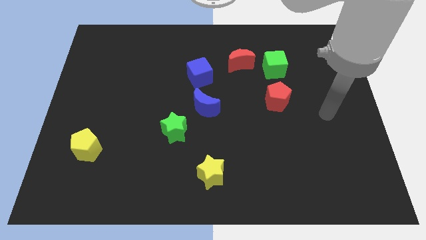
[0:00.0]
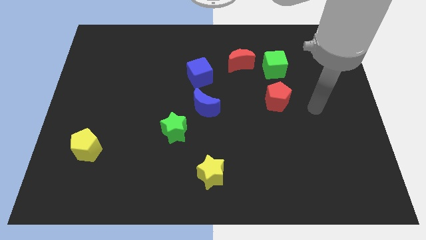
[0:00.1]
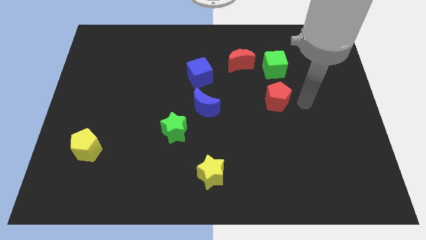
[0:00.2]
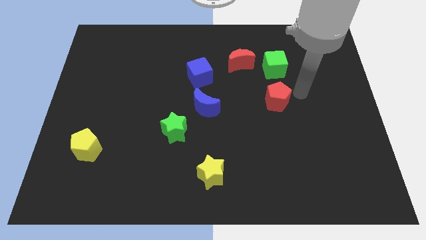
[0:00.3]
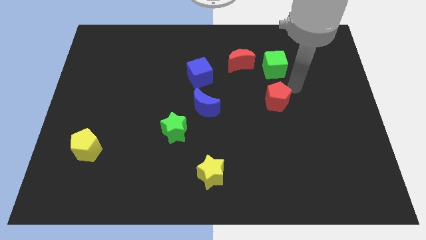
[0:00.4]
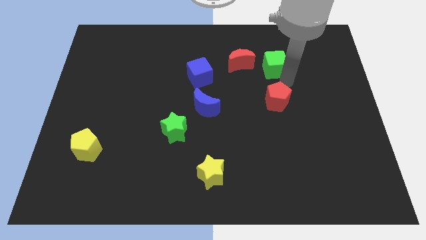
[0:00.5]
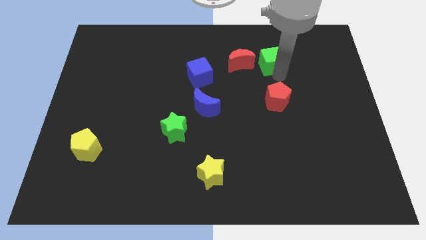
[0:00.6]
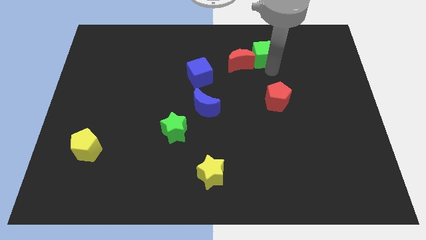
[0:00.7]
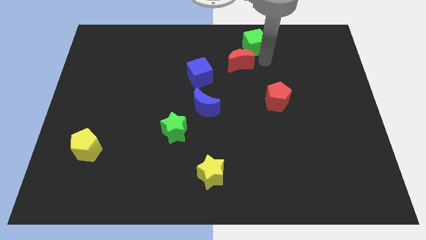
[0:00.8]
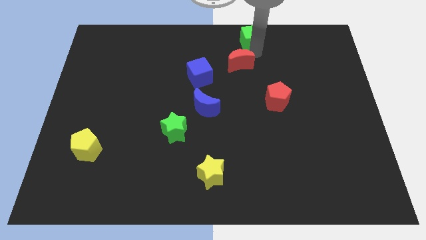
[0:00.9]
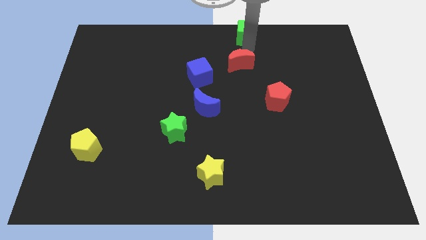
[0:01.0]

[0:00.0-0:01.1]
pull the red moon apart from the green cube

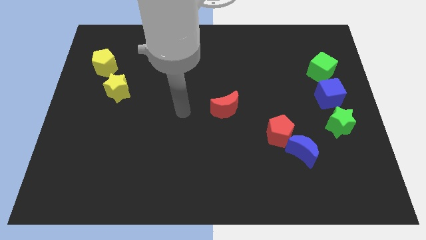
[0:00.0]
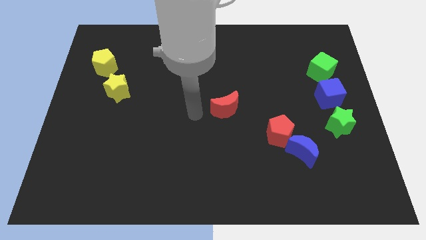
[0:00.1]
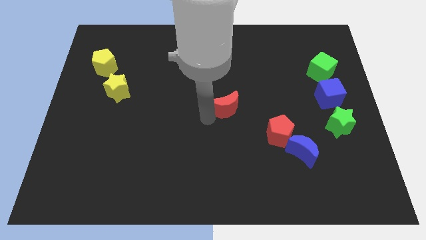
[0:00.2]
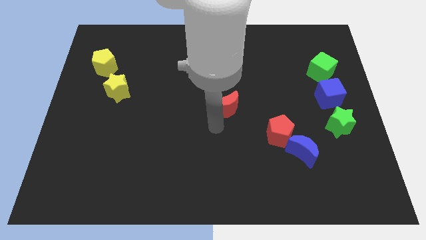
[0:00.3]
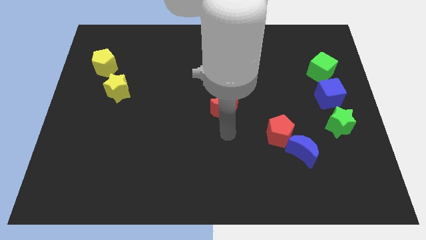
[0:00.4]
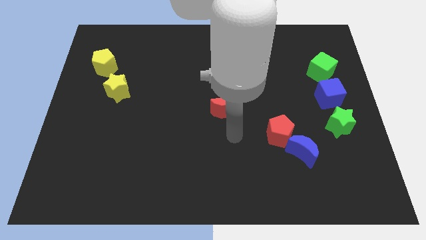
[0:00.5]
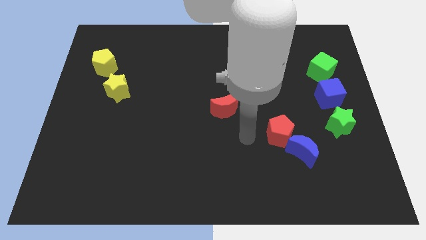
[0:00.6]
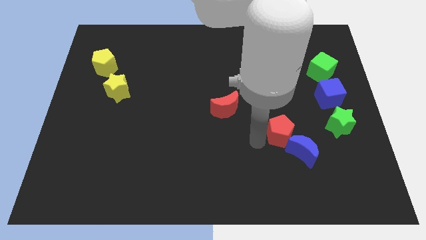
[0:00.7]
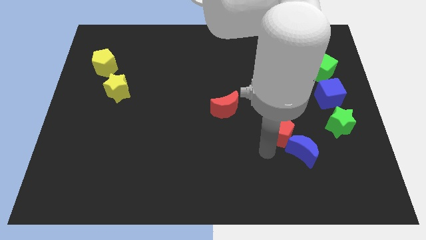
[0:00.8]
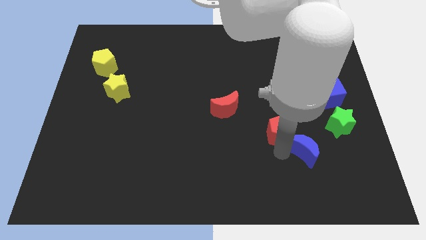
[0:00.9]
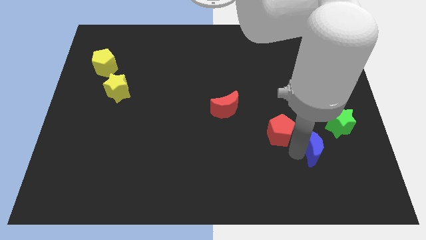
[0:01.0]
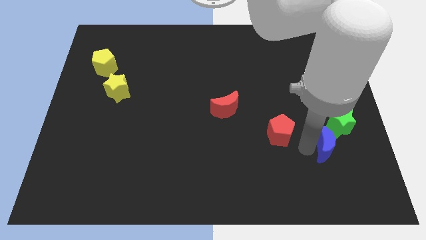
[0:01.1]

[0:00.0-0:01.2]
separate the red pentagon from the blue moon

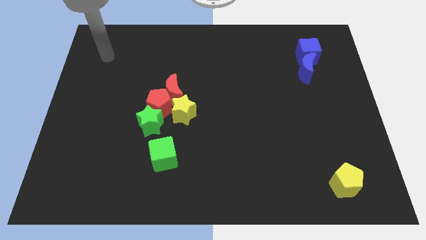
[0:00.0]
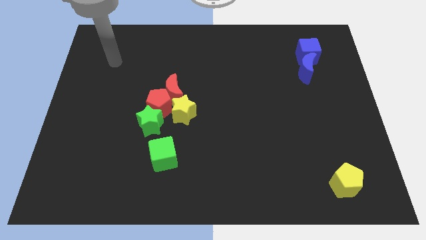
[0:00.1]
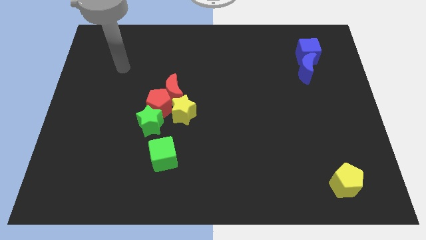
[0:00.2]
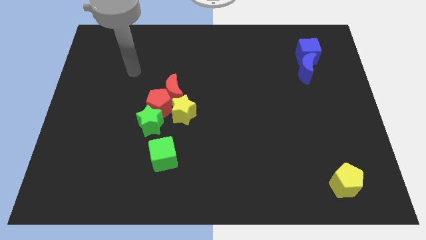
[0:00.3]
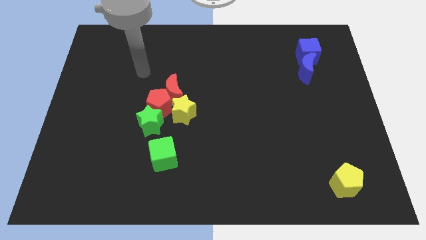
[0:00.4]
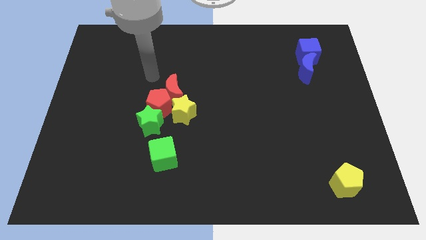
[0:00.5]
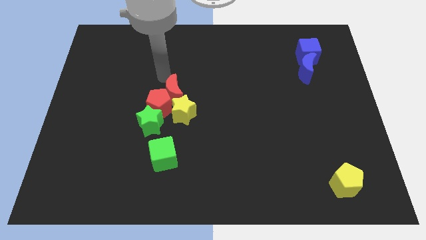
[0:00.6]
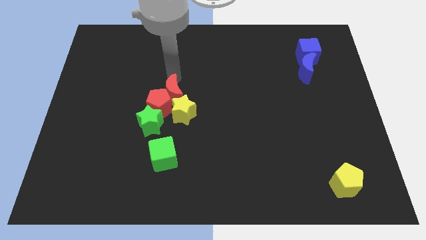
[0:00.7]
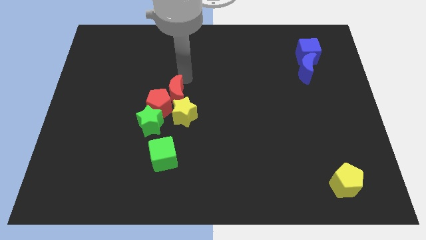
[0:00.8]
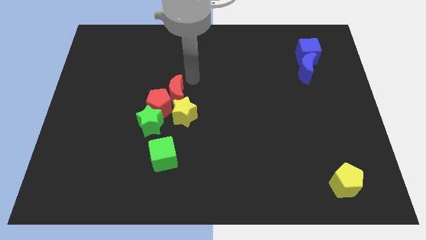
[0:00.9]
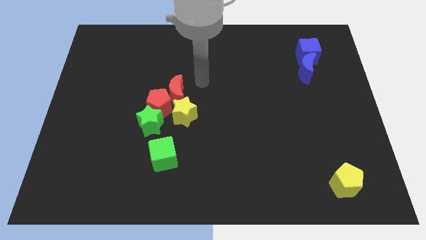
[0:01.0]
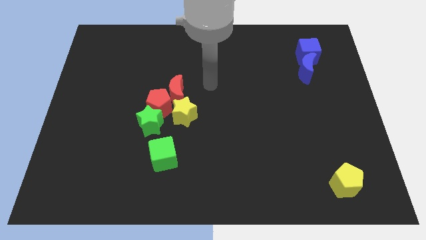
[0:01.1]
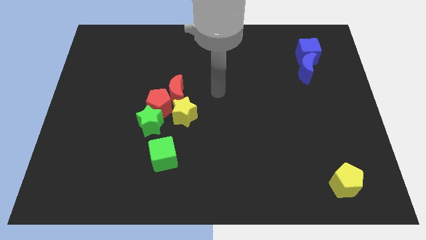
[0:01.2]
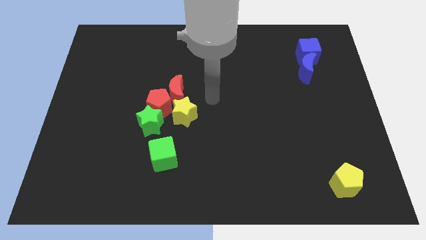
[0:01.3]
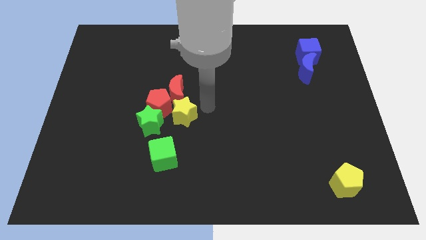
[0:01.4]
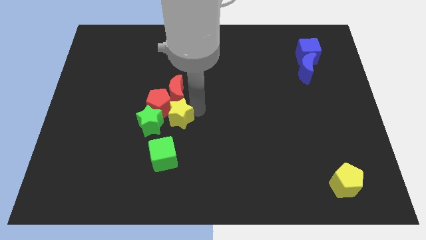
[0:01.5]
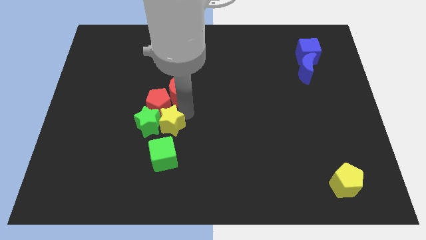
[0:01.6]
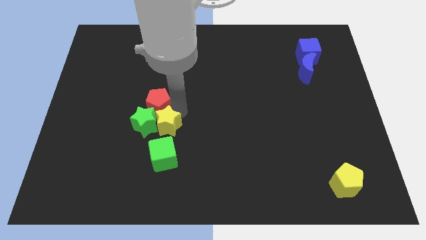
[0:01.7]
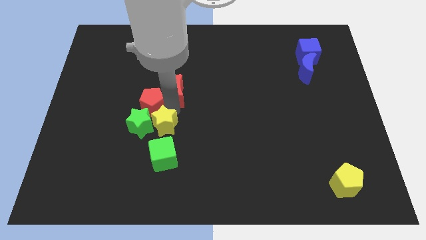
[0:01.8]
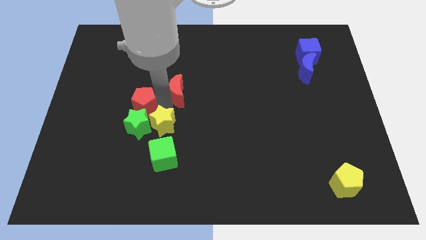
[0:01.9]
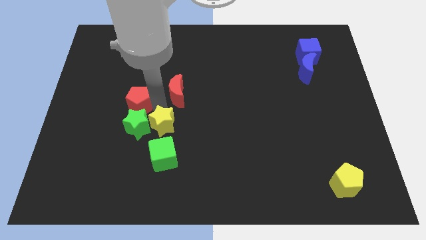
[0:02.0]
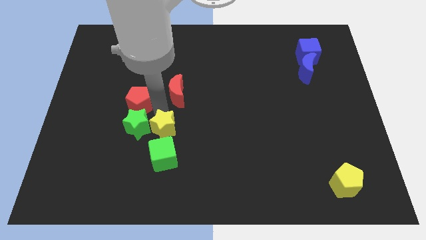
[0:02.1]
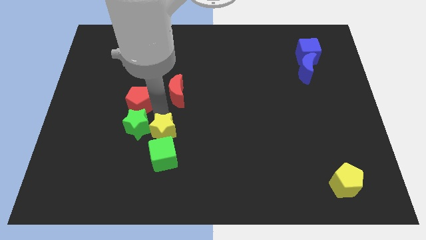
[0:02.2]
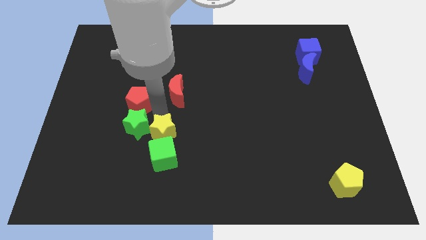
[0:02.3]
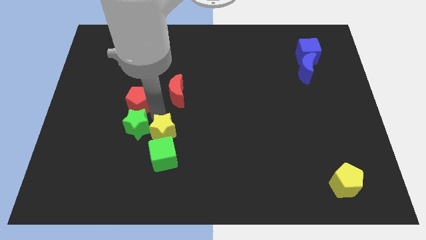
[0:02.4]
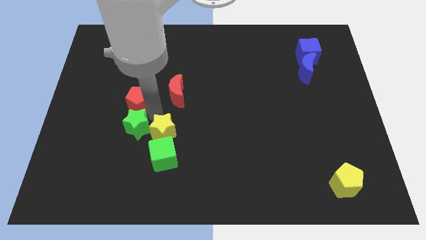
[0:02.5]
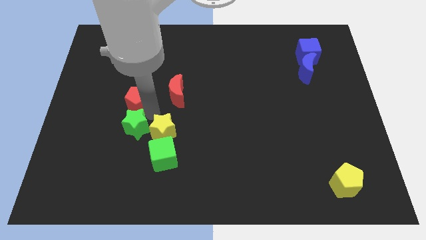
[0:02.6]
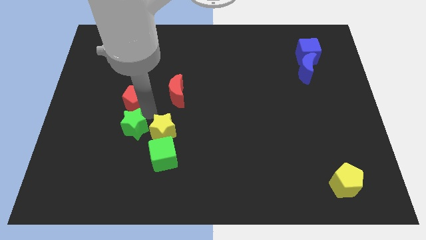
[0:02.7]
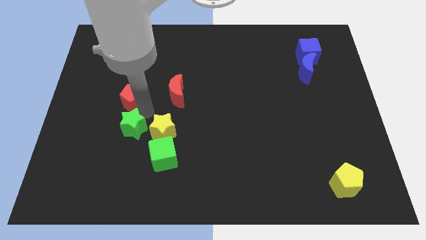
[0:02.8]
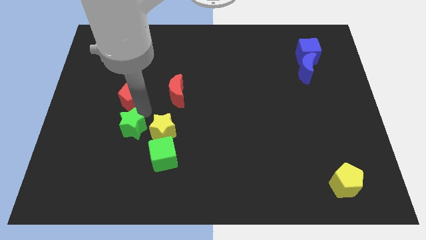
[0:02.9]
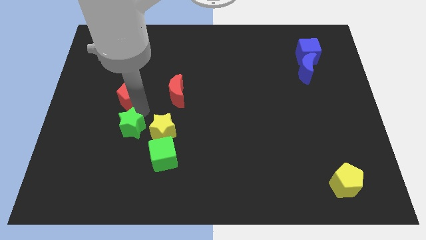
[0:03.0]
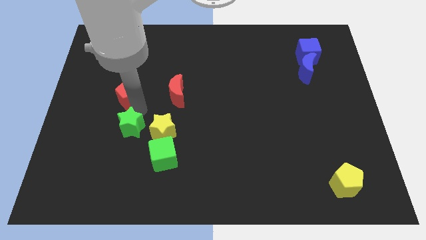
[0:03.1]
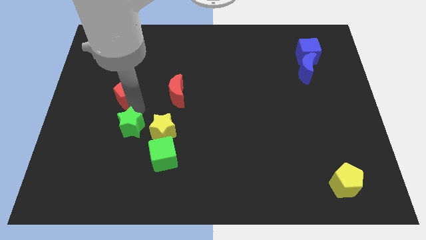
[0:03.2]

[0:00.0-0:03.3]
move the red pentagon away from the group

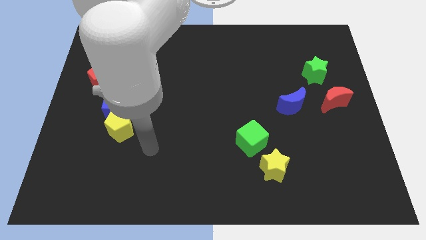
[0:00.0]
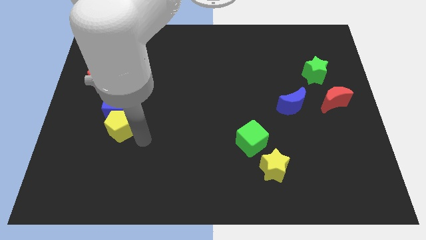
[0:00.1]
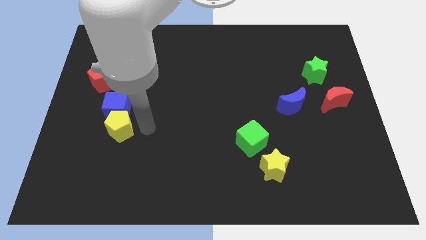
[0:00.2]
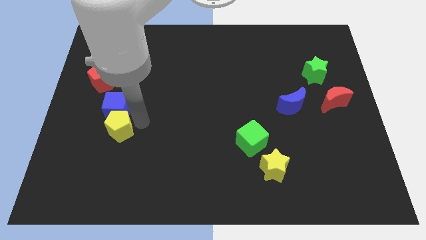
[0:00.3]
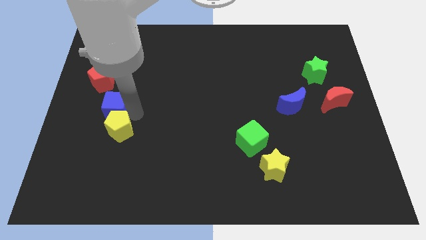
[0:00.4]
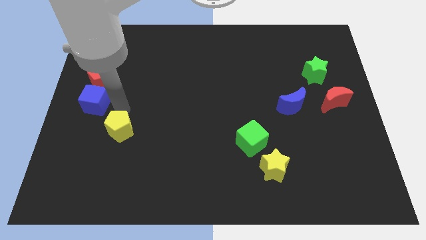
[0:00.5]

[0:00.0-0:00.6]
move the yellow pentagon away from the blue cube

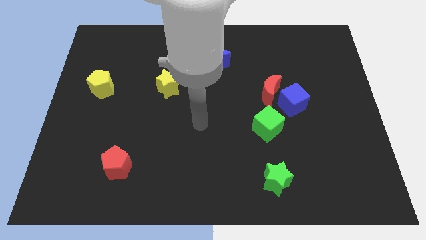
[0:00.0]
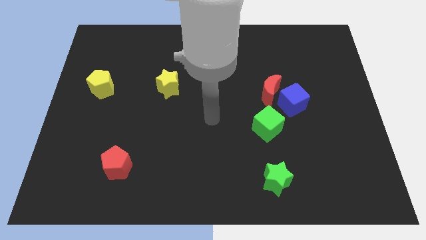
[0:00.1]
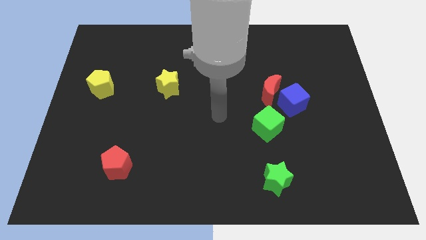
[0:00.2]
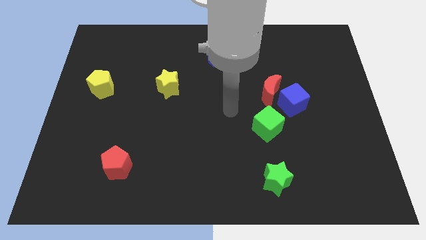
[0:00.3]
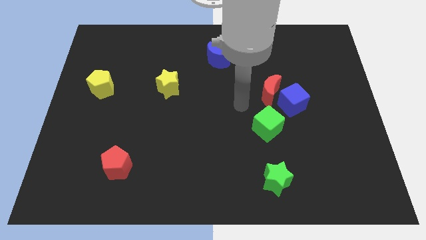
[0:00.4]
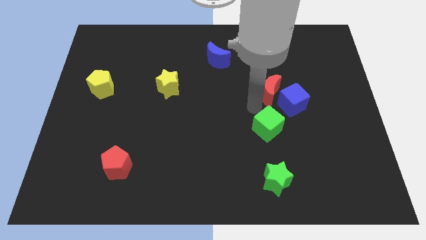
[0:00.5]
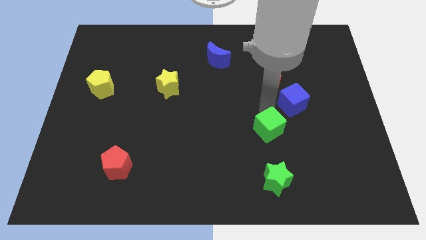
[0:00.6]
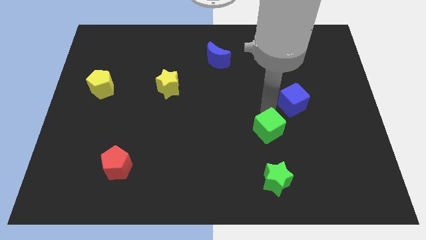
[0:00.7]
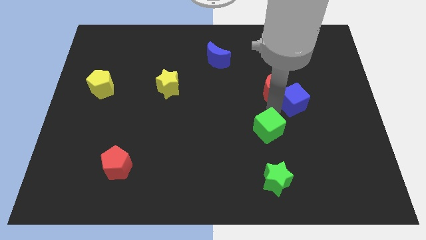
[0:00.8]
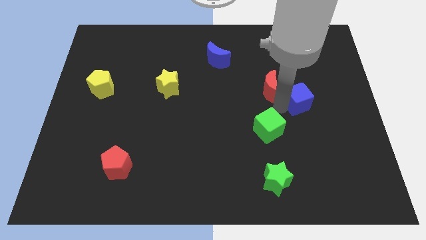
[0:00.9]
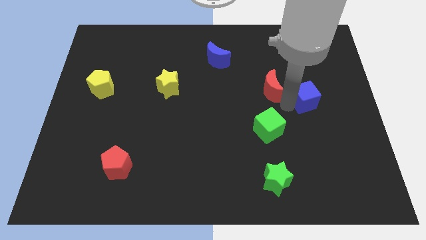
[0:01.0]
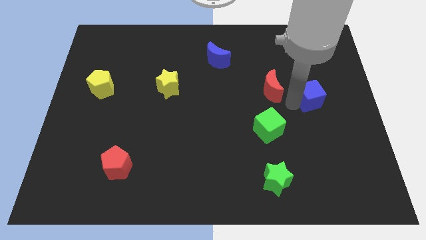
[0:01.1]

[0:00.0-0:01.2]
pull the blue cube apart from the red moon and green cube

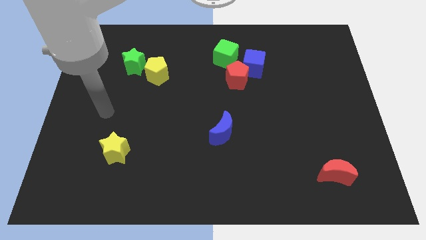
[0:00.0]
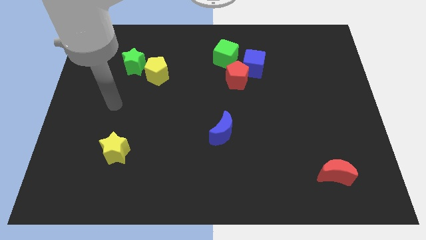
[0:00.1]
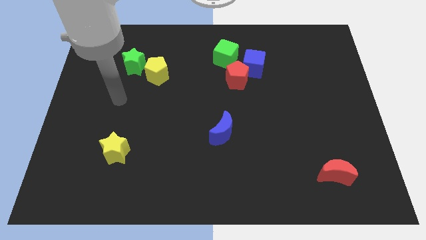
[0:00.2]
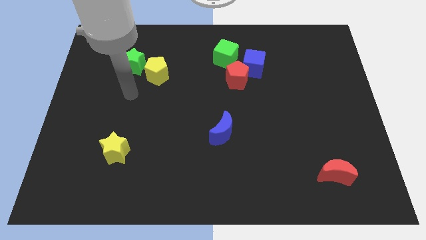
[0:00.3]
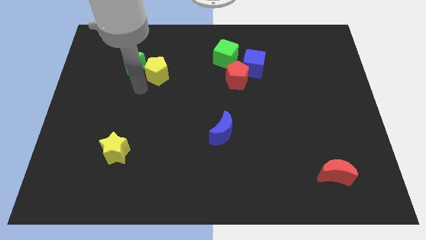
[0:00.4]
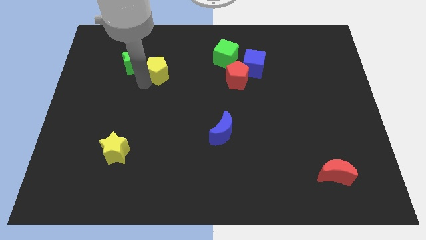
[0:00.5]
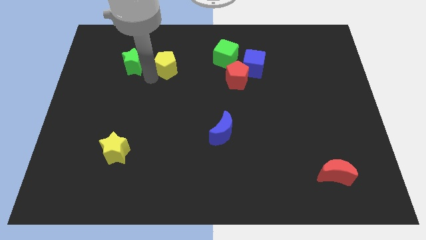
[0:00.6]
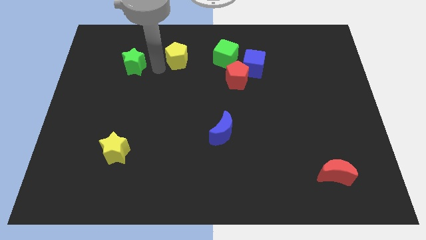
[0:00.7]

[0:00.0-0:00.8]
separate the green star from the yellow pentagon

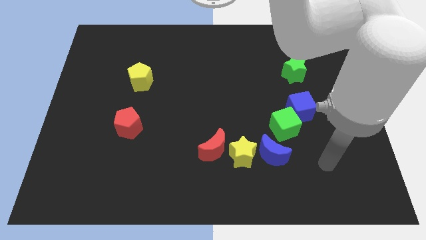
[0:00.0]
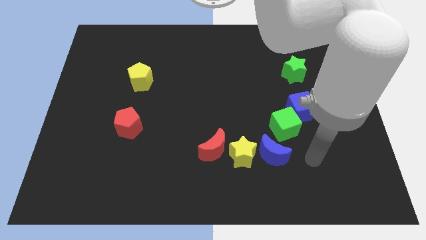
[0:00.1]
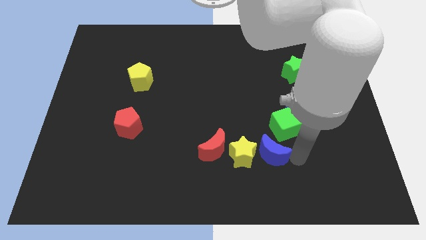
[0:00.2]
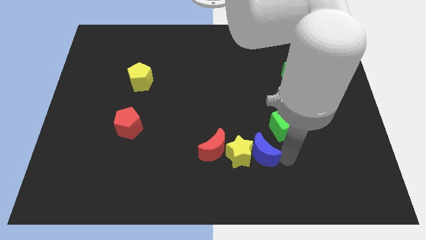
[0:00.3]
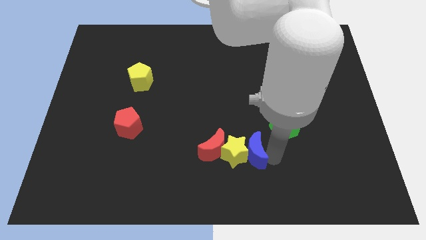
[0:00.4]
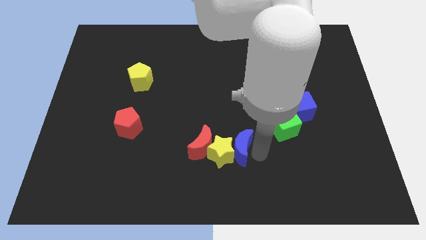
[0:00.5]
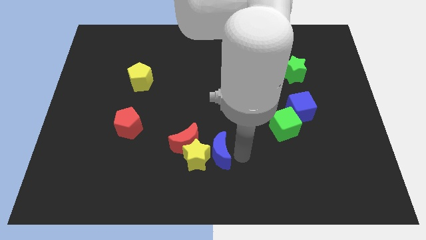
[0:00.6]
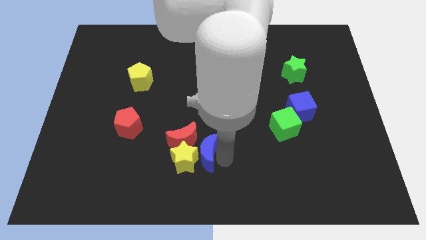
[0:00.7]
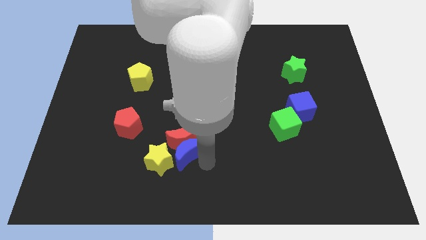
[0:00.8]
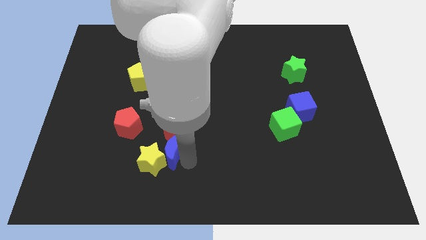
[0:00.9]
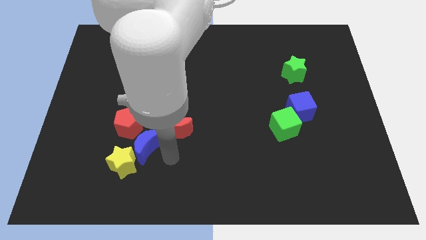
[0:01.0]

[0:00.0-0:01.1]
pull the red moon apart from the yellow star

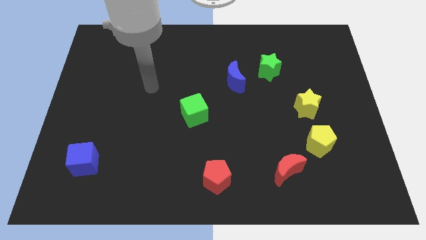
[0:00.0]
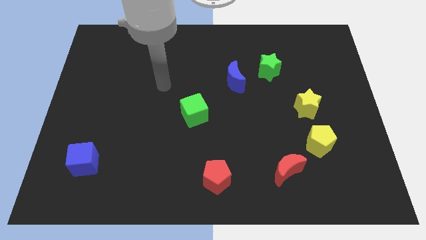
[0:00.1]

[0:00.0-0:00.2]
pull the blue moon apart from the green star
